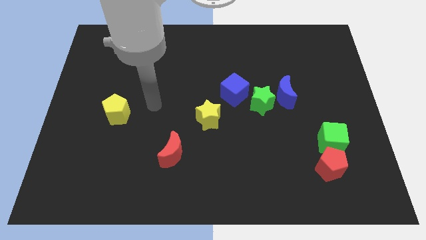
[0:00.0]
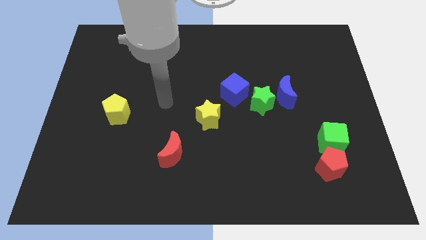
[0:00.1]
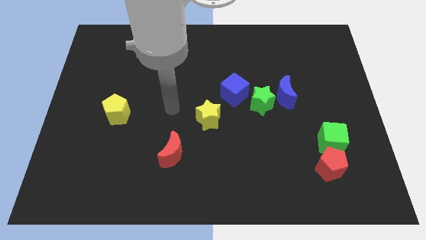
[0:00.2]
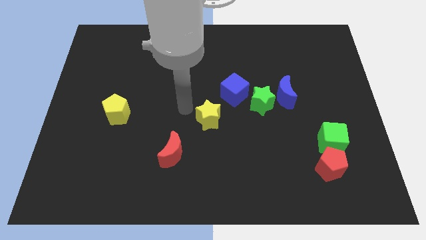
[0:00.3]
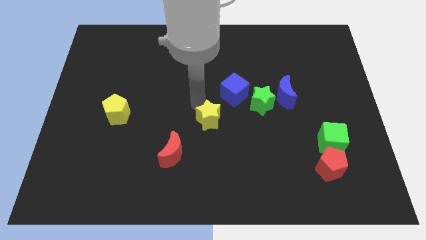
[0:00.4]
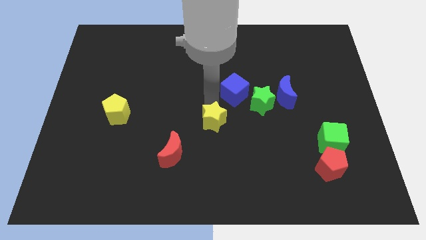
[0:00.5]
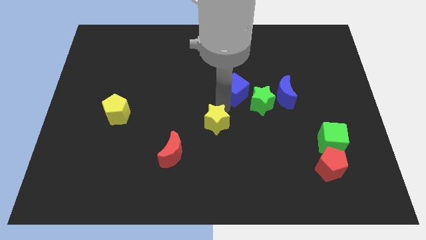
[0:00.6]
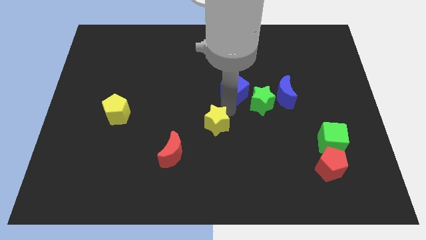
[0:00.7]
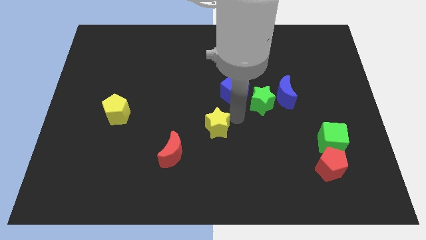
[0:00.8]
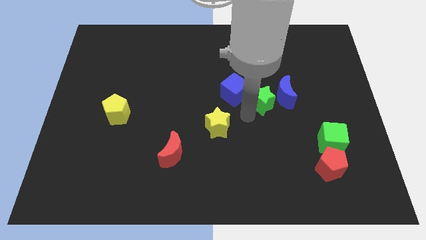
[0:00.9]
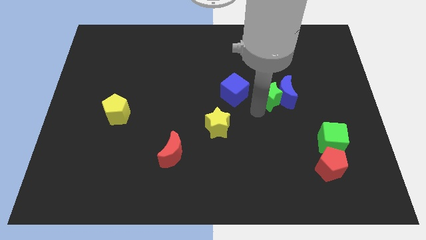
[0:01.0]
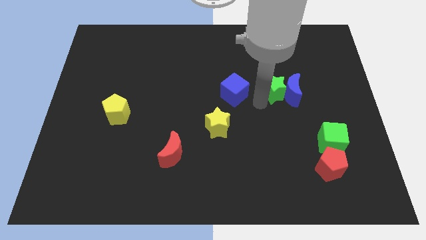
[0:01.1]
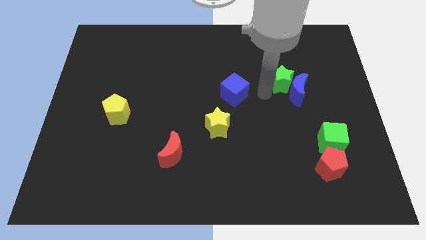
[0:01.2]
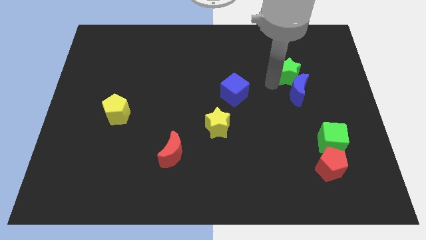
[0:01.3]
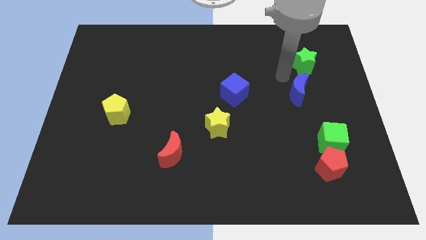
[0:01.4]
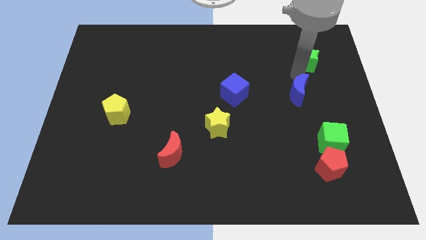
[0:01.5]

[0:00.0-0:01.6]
move the blue moon away from the green star

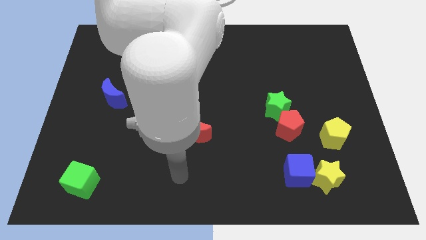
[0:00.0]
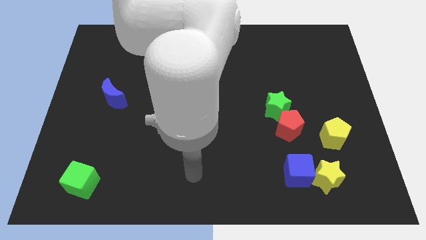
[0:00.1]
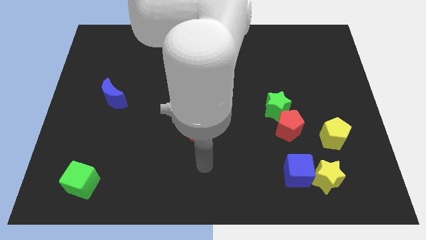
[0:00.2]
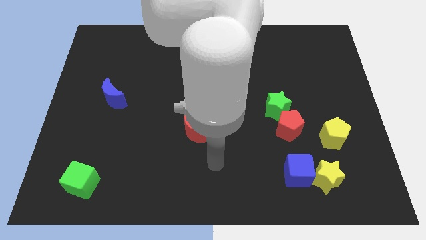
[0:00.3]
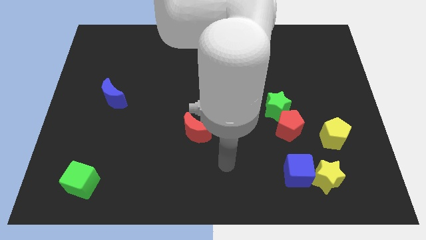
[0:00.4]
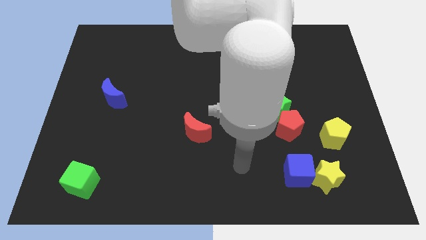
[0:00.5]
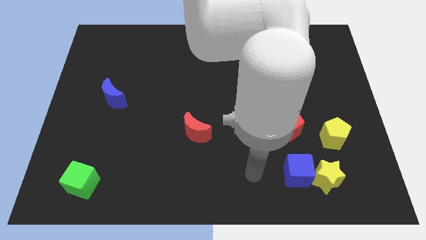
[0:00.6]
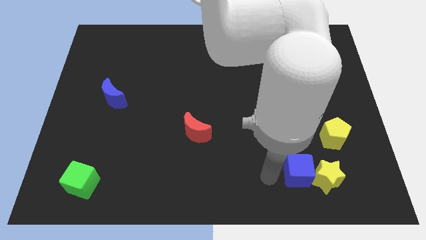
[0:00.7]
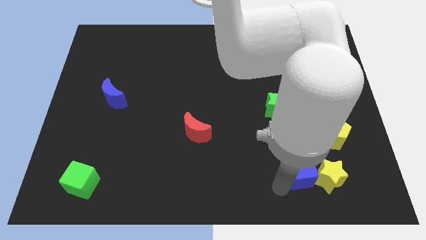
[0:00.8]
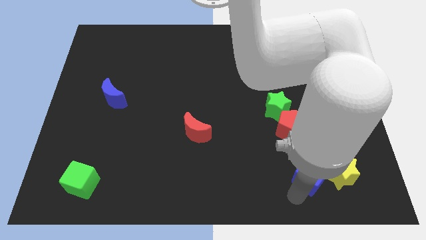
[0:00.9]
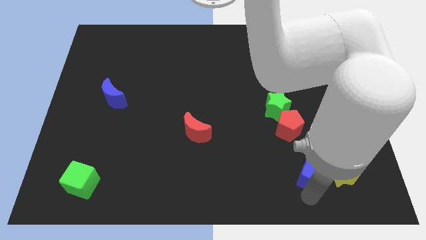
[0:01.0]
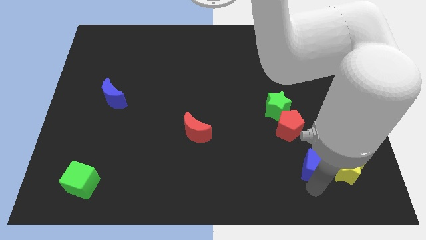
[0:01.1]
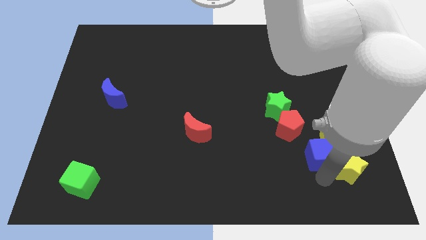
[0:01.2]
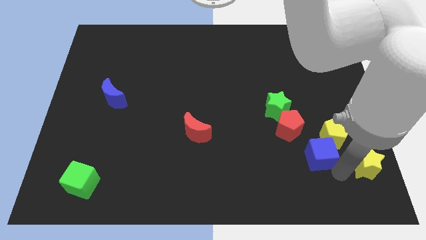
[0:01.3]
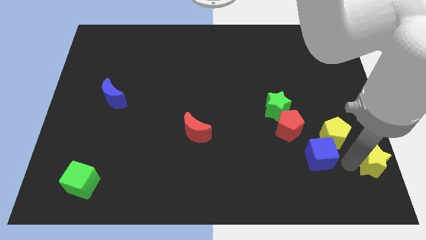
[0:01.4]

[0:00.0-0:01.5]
move the blue cube away from the yellow star

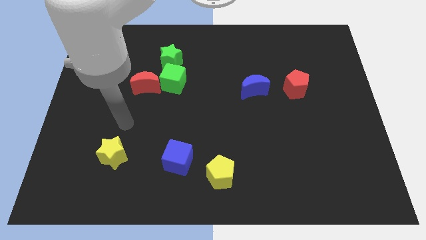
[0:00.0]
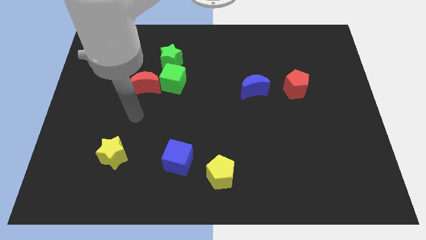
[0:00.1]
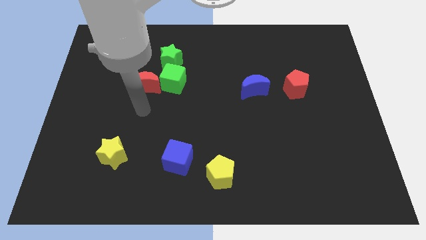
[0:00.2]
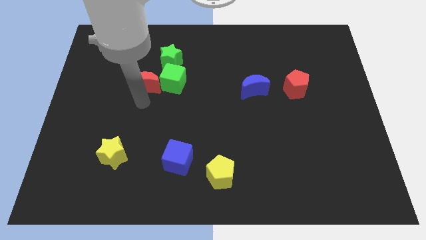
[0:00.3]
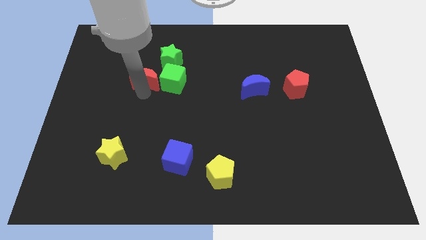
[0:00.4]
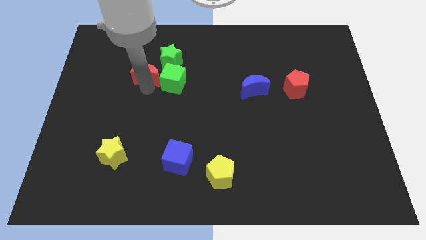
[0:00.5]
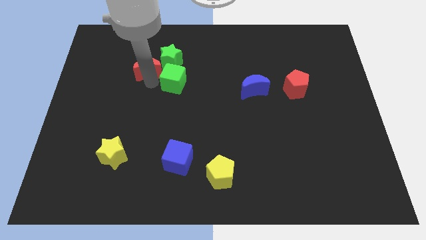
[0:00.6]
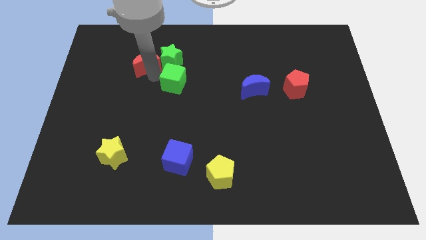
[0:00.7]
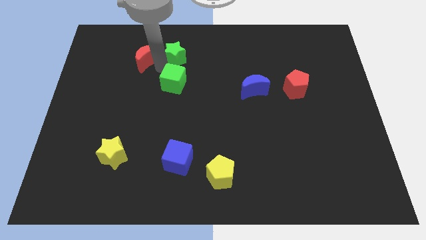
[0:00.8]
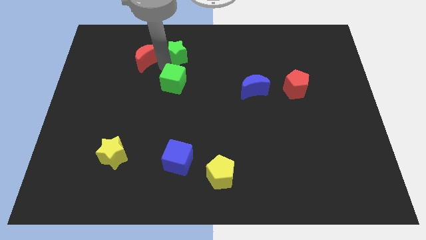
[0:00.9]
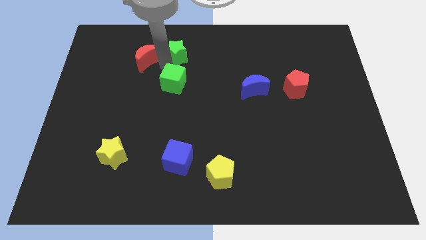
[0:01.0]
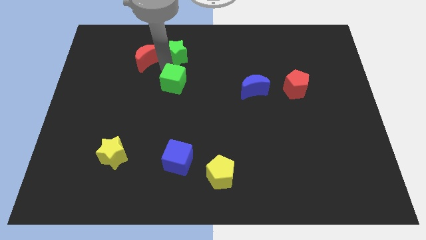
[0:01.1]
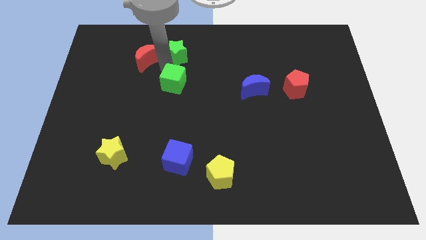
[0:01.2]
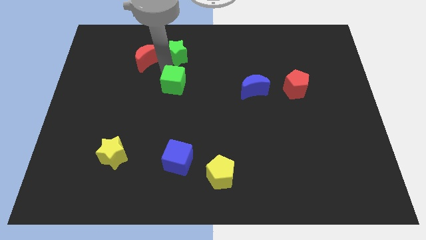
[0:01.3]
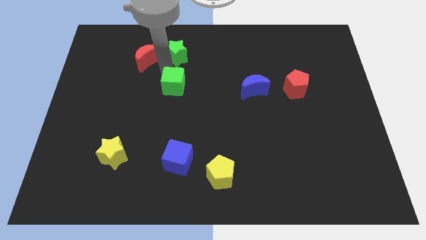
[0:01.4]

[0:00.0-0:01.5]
pull the green cube apart from the red moon and green star

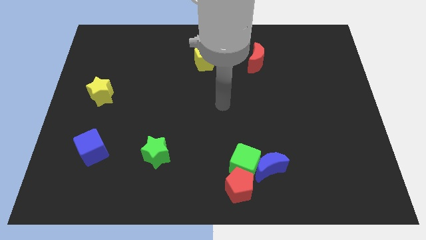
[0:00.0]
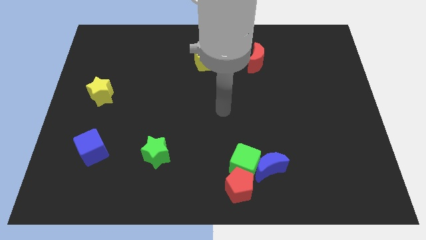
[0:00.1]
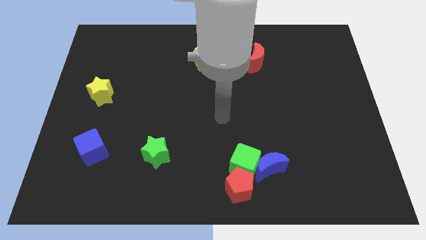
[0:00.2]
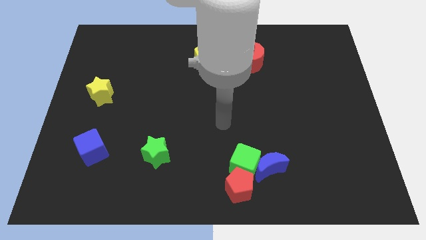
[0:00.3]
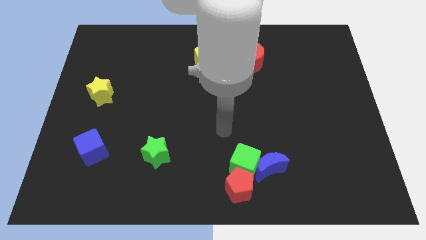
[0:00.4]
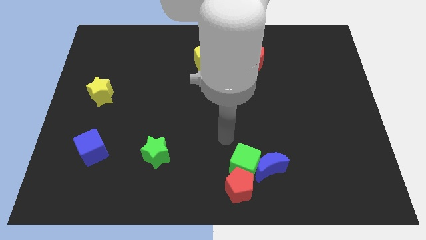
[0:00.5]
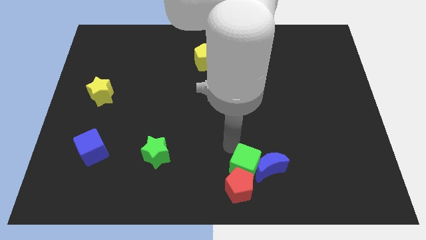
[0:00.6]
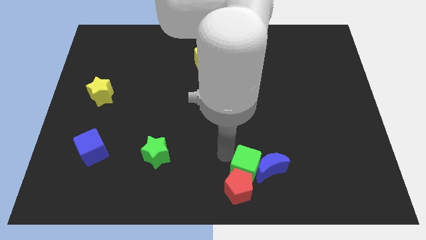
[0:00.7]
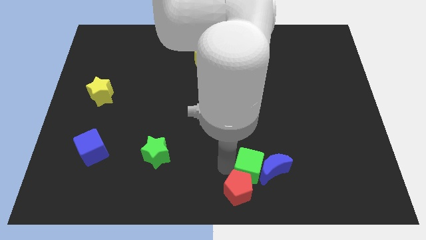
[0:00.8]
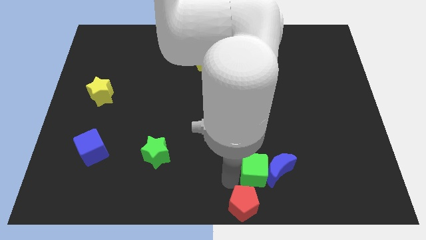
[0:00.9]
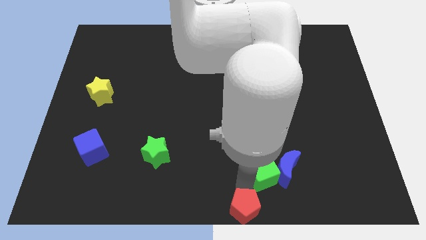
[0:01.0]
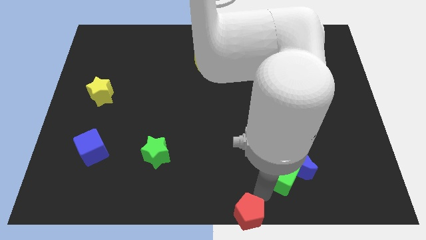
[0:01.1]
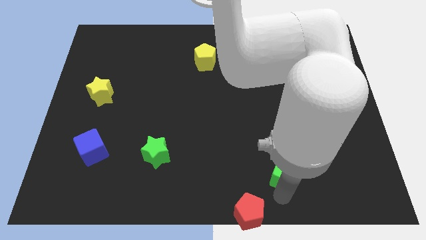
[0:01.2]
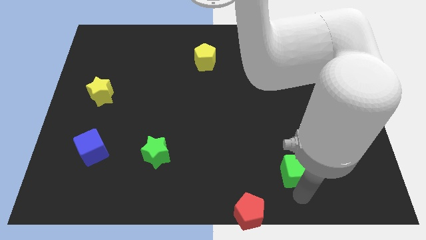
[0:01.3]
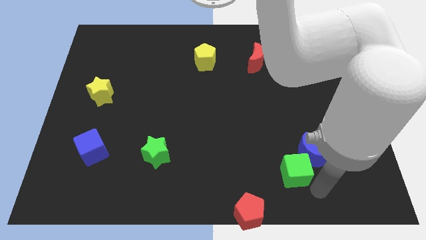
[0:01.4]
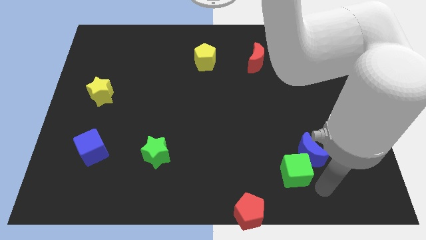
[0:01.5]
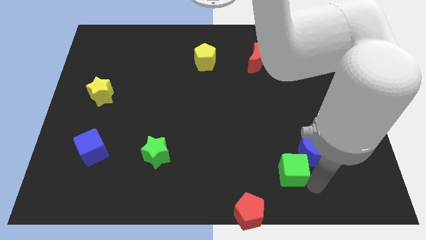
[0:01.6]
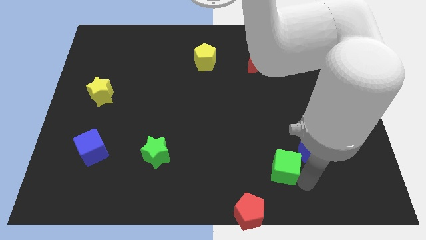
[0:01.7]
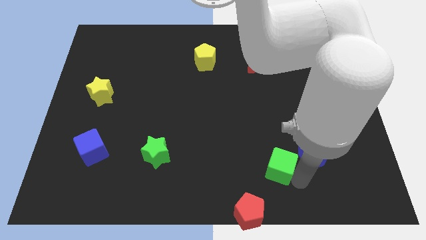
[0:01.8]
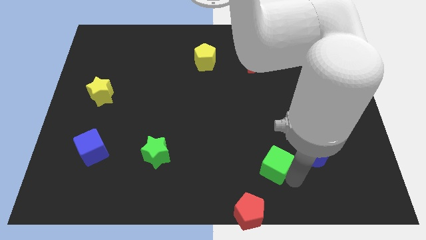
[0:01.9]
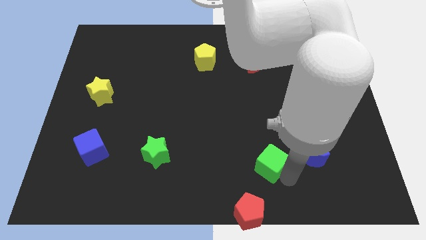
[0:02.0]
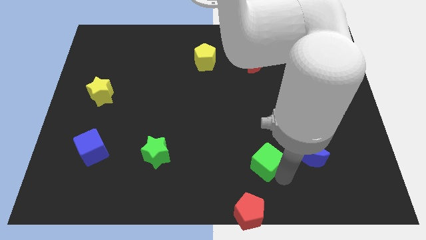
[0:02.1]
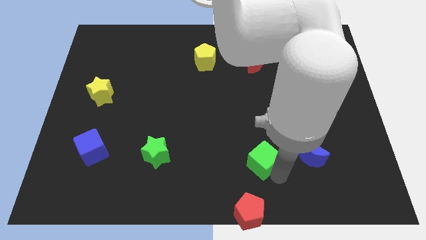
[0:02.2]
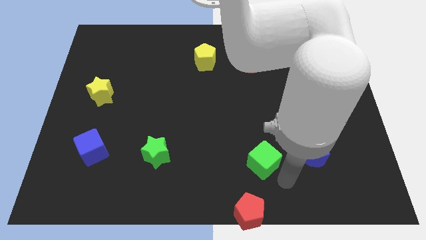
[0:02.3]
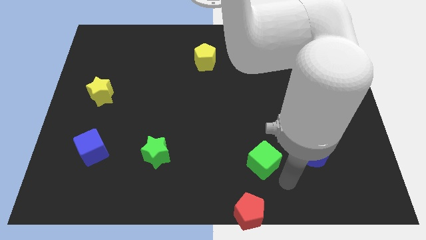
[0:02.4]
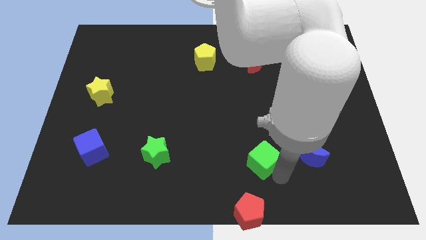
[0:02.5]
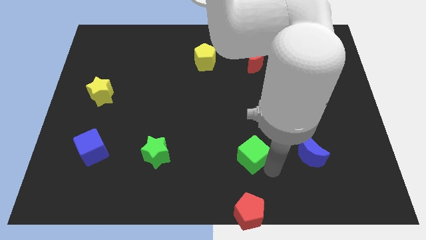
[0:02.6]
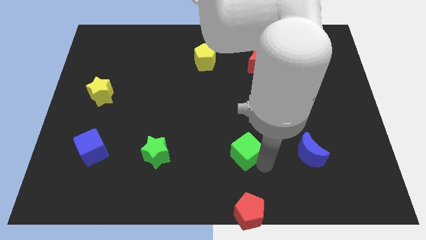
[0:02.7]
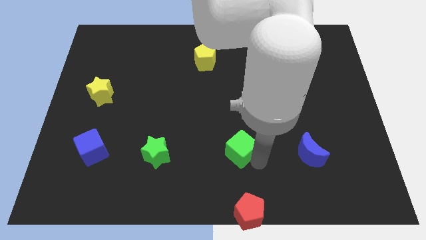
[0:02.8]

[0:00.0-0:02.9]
move the green cube away from the blue moon and red pentagon

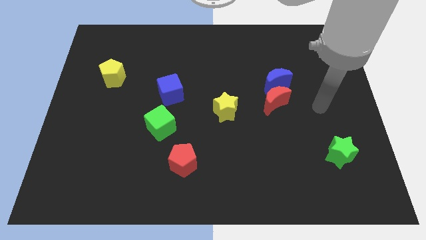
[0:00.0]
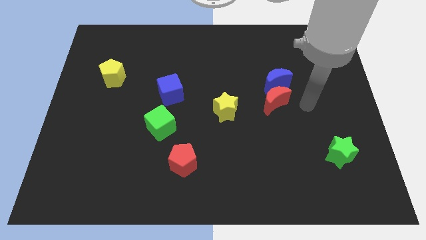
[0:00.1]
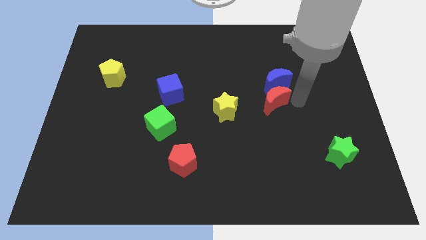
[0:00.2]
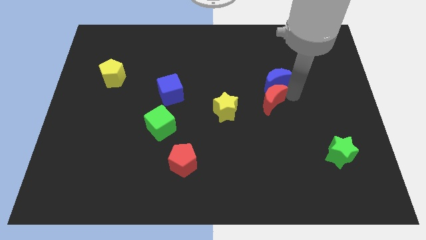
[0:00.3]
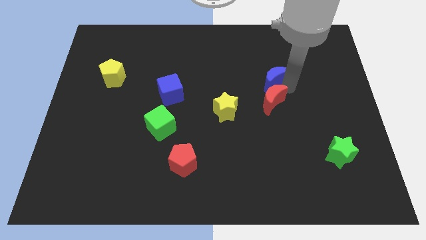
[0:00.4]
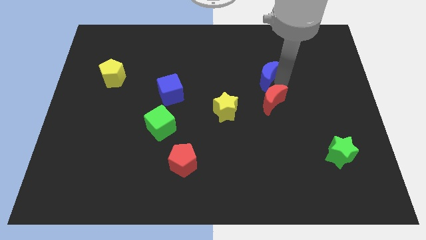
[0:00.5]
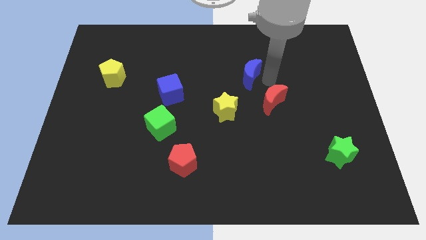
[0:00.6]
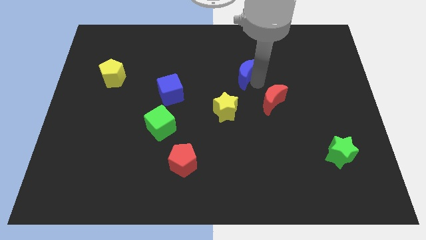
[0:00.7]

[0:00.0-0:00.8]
separate the red moon from the blue moon

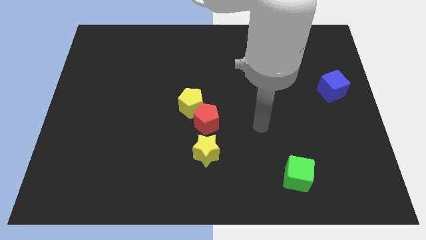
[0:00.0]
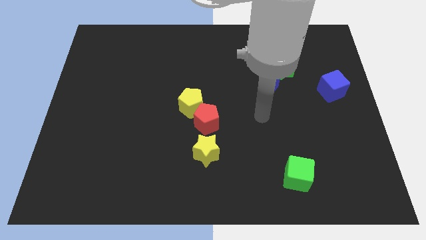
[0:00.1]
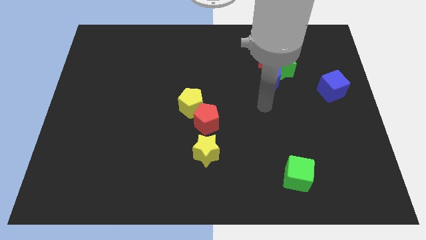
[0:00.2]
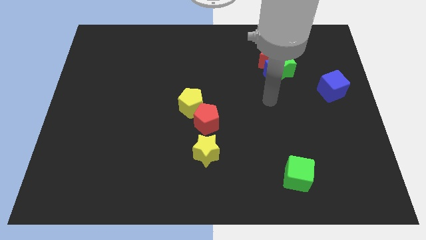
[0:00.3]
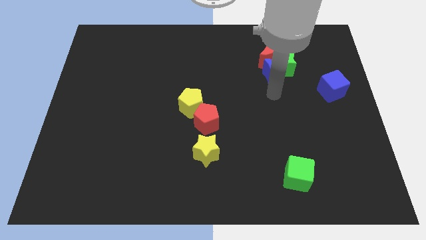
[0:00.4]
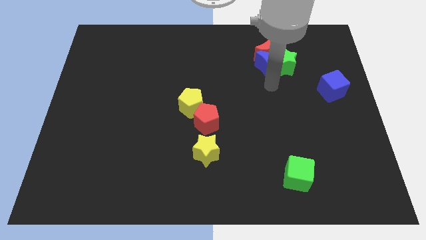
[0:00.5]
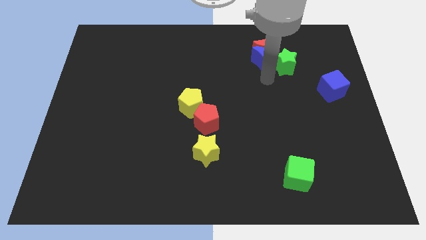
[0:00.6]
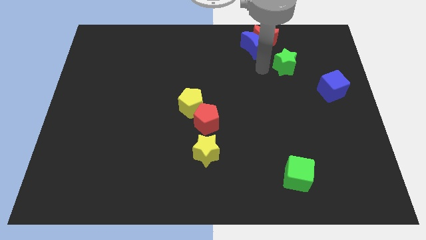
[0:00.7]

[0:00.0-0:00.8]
separate the green star from the blue moon and red moon

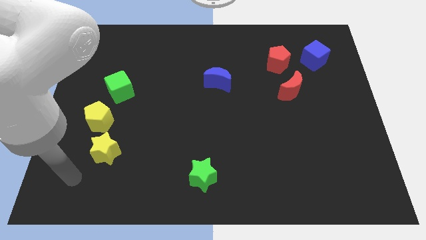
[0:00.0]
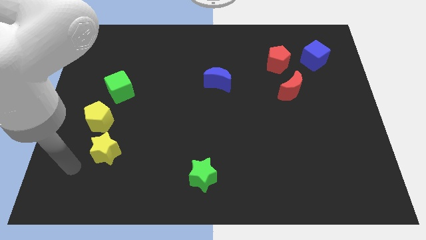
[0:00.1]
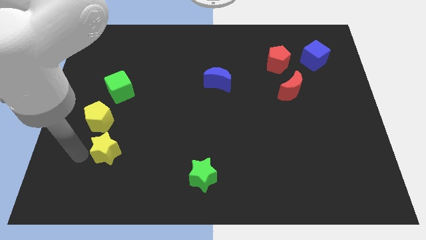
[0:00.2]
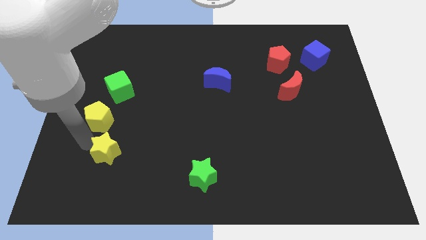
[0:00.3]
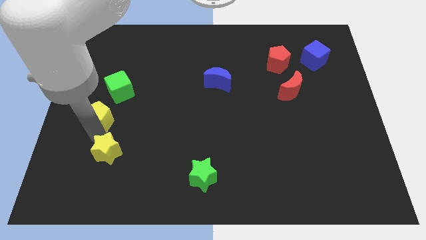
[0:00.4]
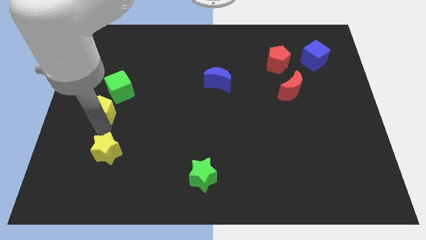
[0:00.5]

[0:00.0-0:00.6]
separate the yellow star from the yellow pentagon
